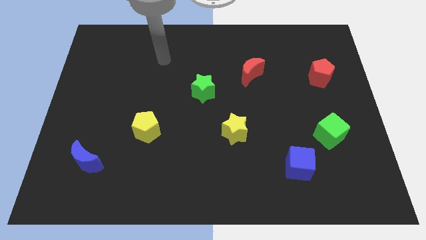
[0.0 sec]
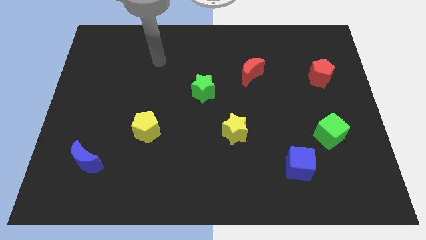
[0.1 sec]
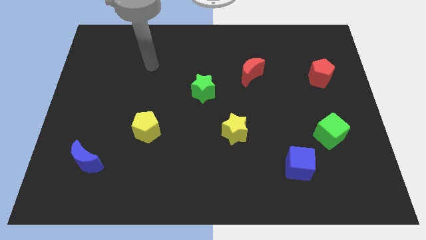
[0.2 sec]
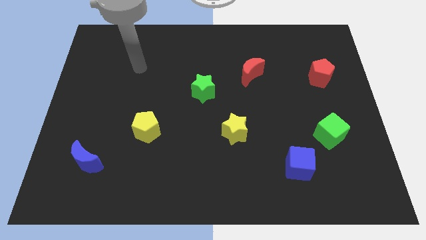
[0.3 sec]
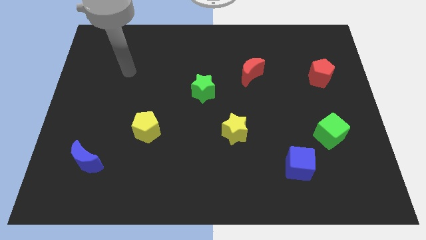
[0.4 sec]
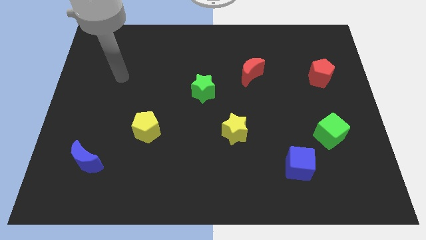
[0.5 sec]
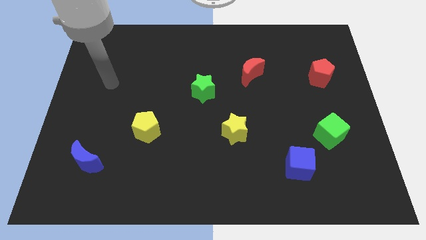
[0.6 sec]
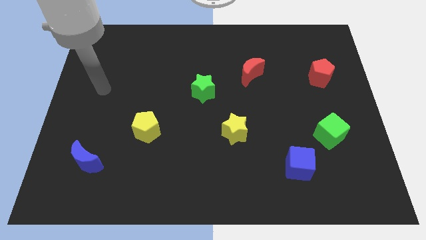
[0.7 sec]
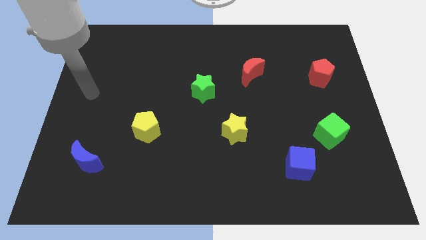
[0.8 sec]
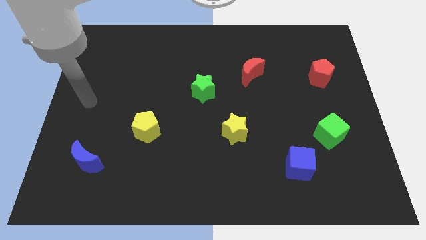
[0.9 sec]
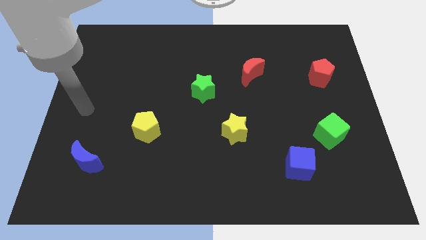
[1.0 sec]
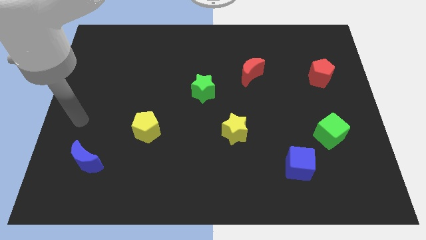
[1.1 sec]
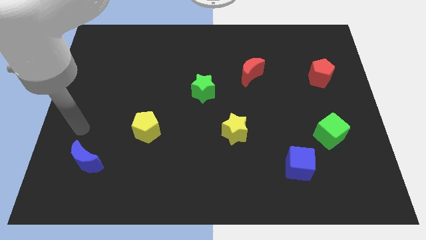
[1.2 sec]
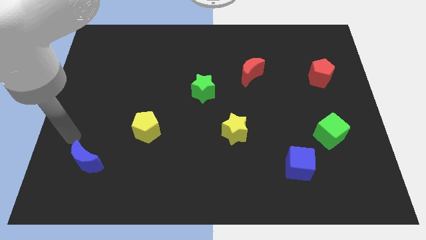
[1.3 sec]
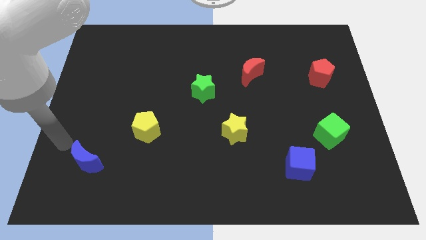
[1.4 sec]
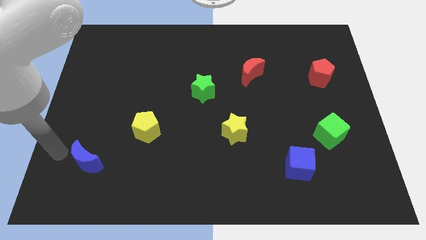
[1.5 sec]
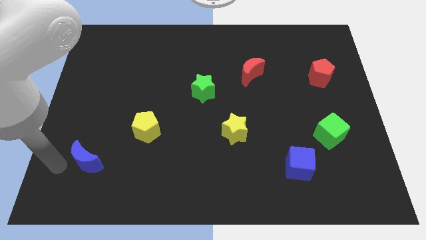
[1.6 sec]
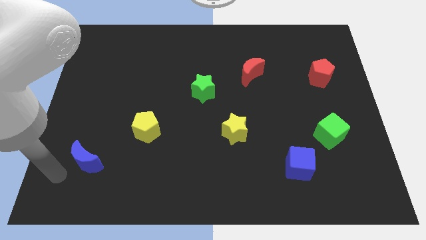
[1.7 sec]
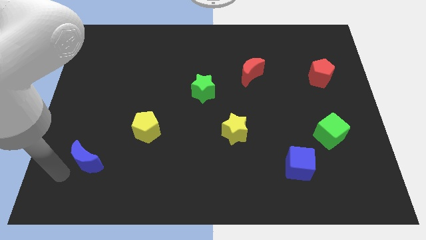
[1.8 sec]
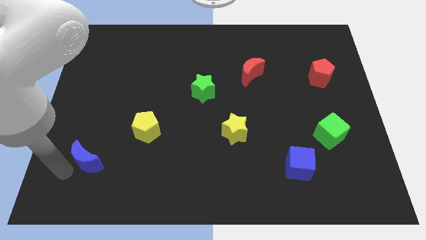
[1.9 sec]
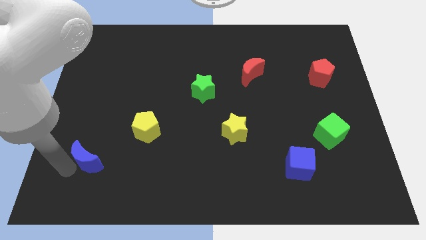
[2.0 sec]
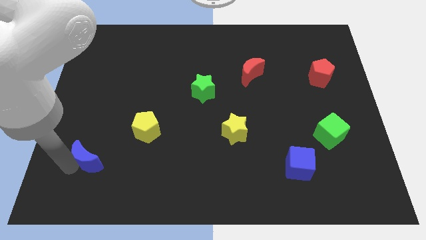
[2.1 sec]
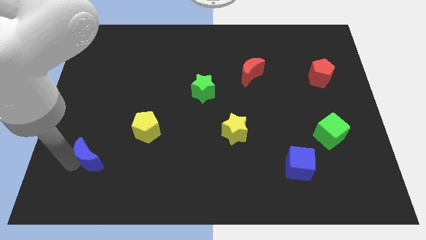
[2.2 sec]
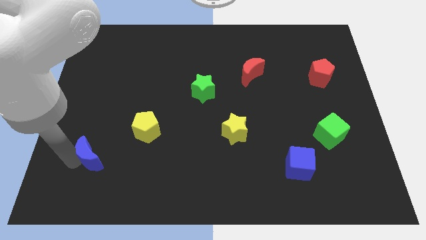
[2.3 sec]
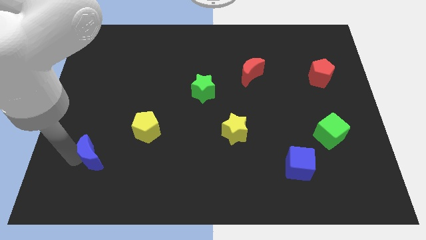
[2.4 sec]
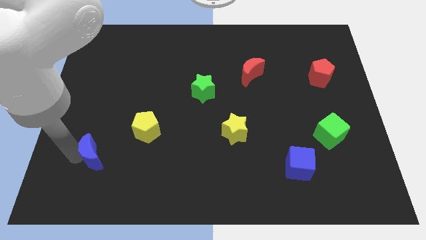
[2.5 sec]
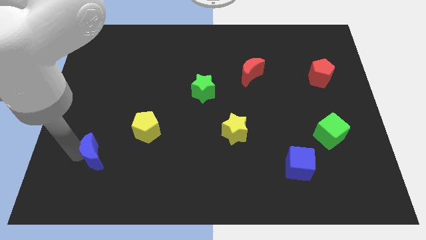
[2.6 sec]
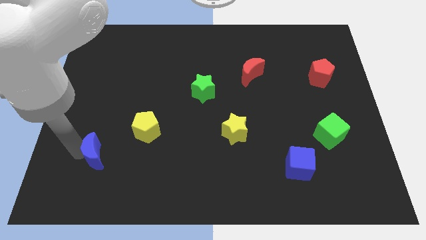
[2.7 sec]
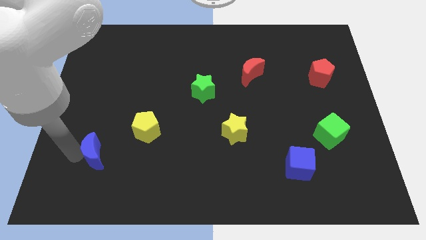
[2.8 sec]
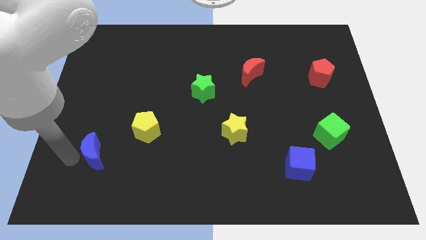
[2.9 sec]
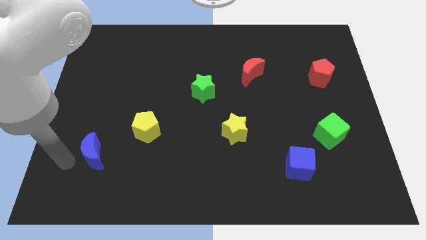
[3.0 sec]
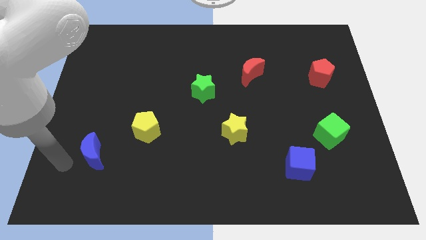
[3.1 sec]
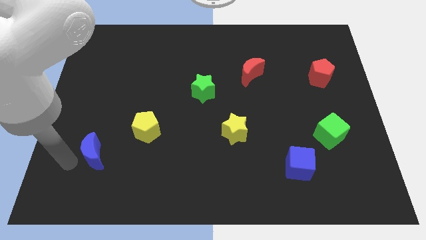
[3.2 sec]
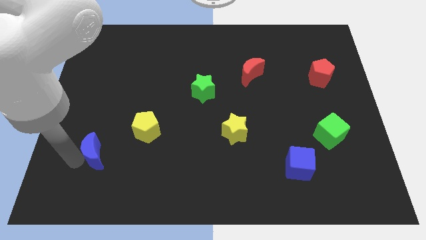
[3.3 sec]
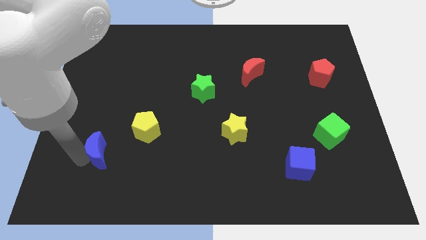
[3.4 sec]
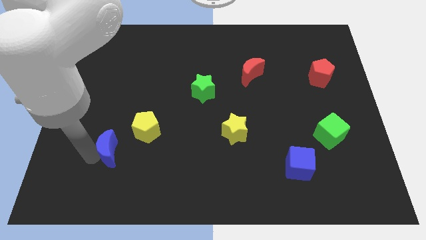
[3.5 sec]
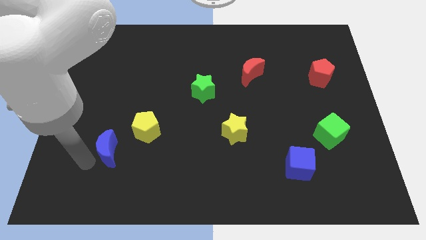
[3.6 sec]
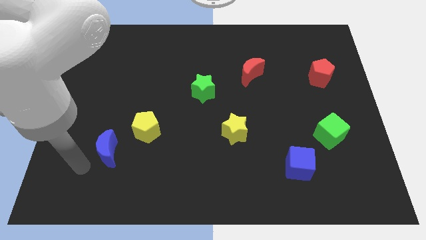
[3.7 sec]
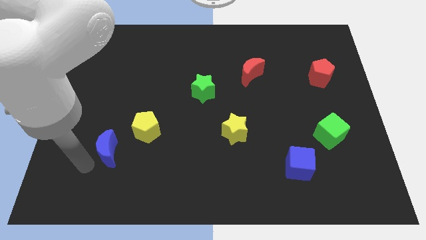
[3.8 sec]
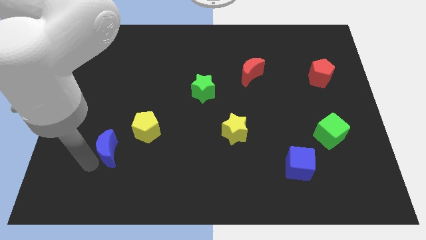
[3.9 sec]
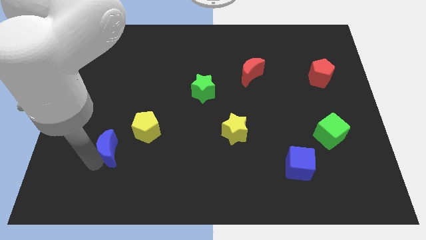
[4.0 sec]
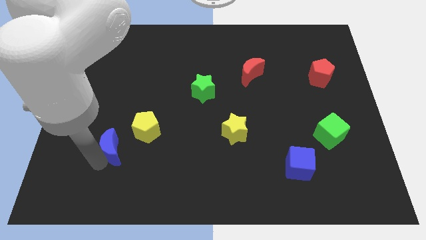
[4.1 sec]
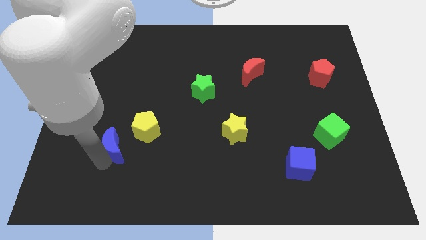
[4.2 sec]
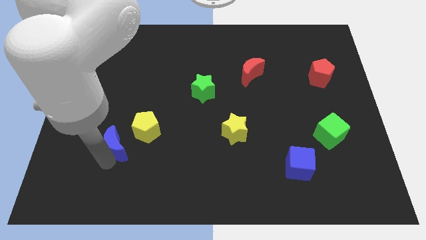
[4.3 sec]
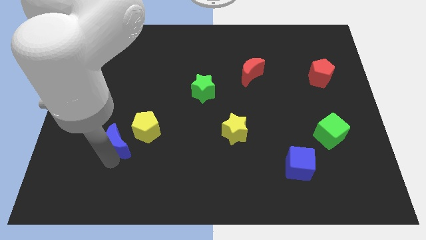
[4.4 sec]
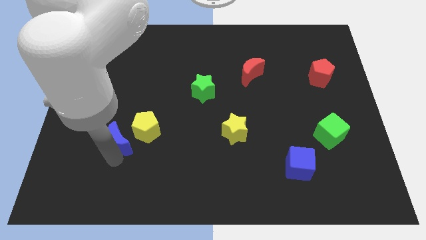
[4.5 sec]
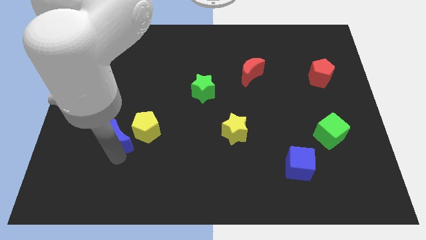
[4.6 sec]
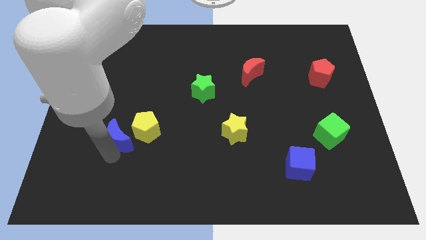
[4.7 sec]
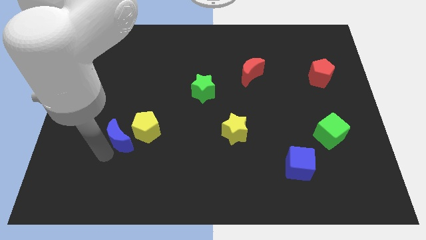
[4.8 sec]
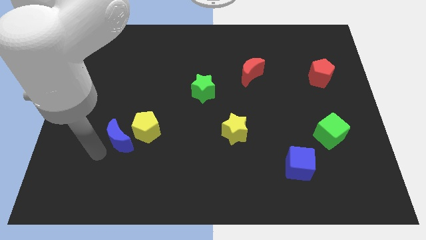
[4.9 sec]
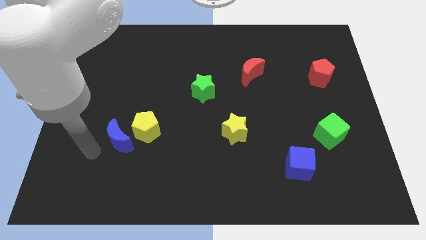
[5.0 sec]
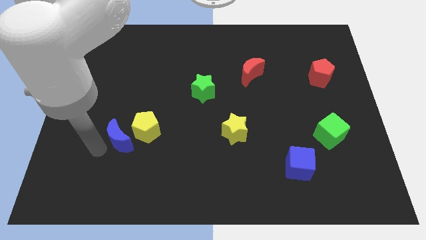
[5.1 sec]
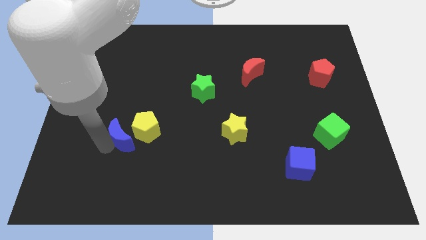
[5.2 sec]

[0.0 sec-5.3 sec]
move the blue moon to the yellow pentagon

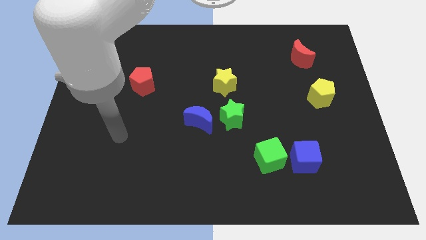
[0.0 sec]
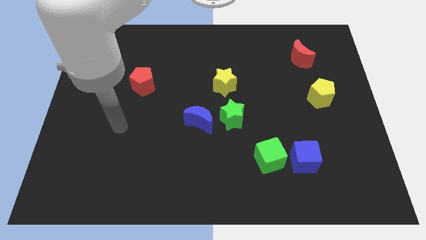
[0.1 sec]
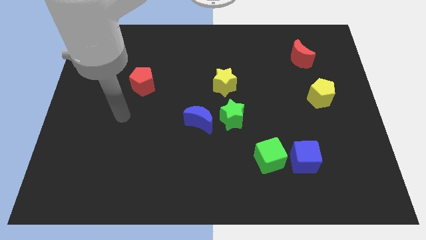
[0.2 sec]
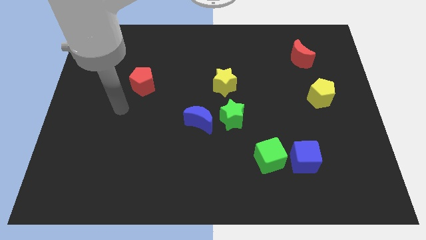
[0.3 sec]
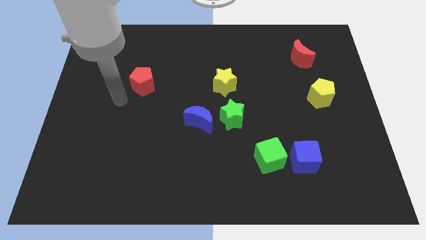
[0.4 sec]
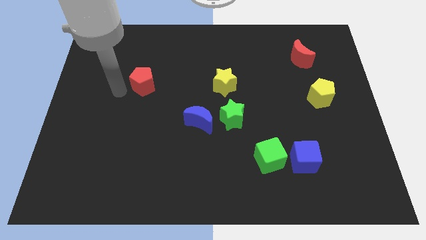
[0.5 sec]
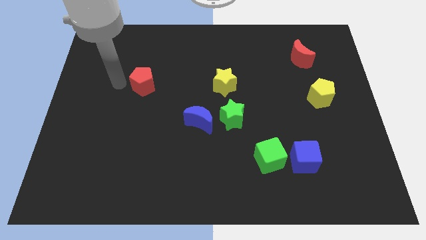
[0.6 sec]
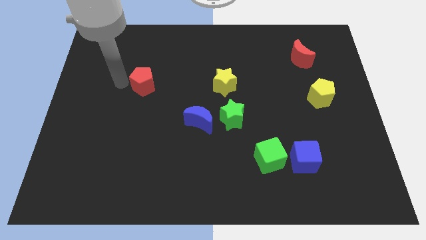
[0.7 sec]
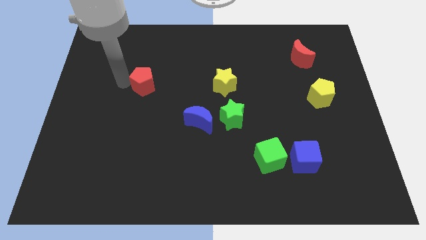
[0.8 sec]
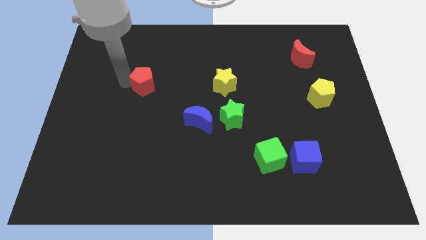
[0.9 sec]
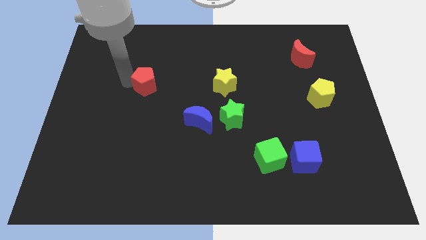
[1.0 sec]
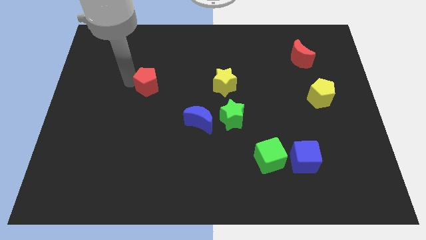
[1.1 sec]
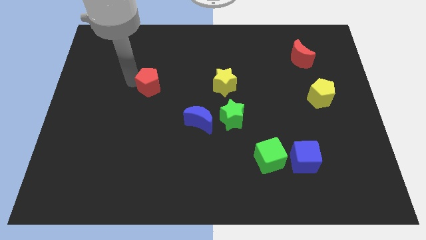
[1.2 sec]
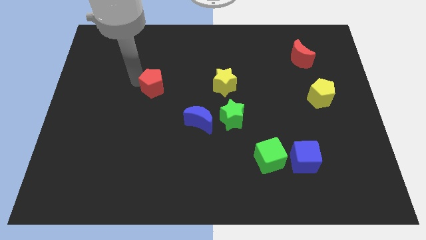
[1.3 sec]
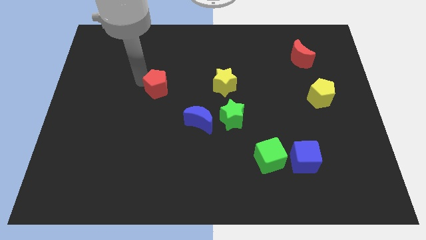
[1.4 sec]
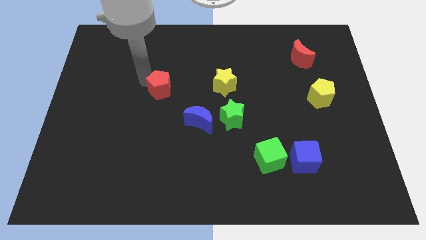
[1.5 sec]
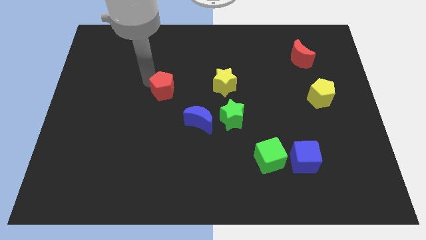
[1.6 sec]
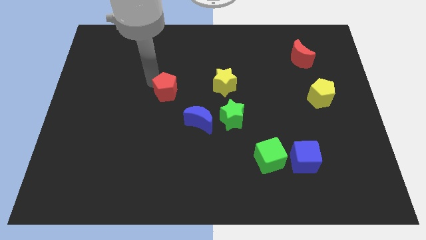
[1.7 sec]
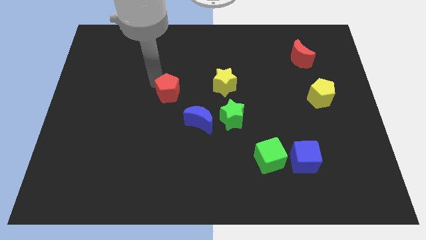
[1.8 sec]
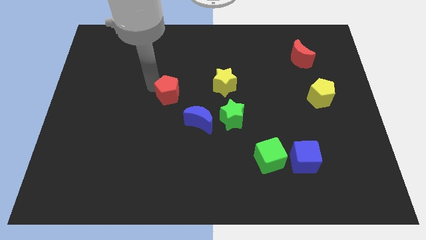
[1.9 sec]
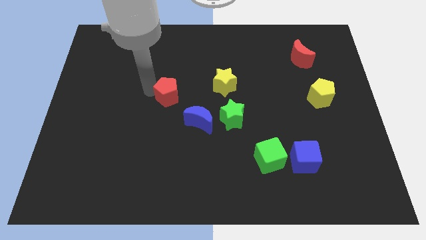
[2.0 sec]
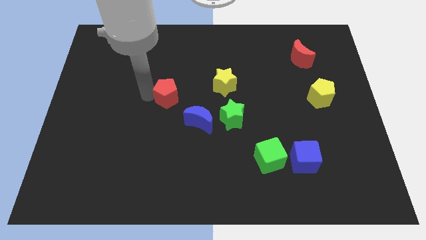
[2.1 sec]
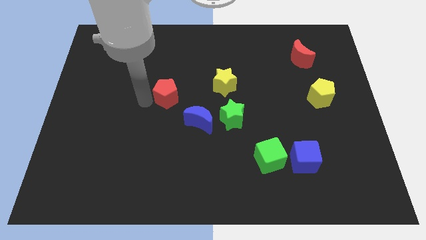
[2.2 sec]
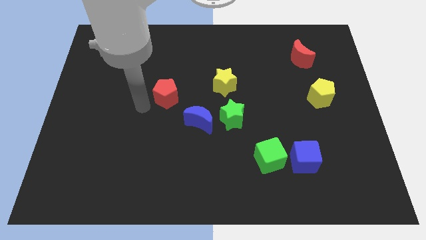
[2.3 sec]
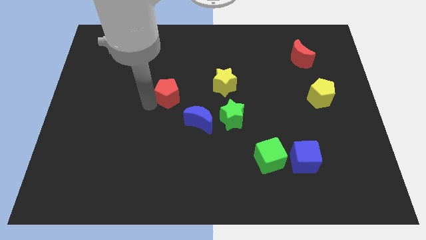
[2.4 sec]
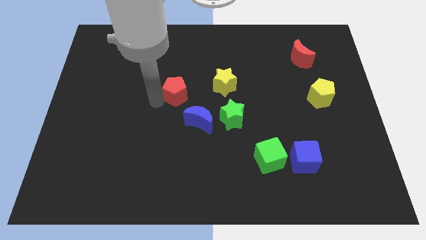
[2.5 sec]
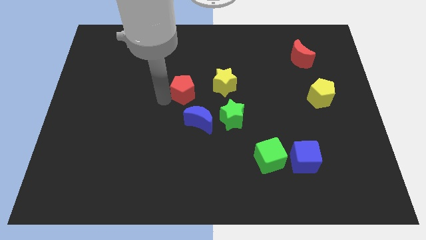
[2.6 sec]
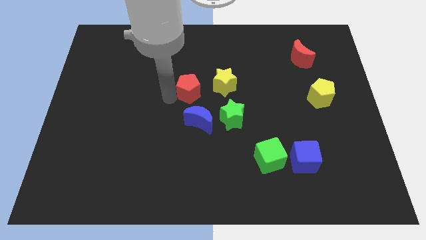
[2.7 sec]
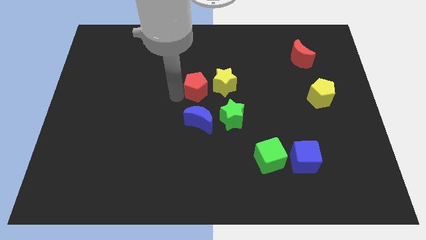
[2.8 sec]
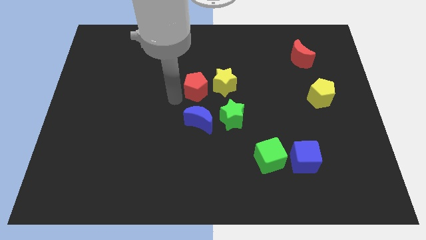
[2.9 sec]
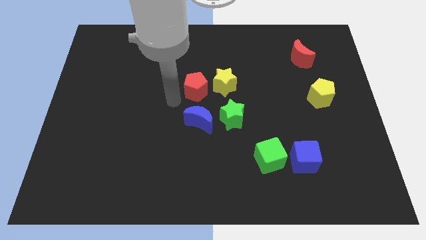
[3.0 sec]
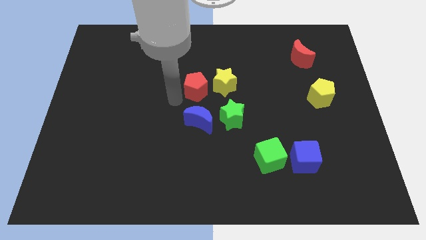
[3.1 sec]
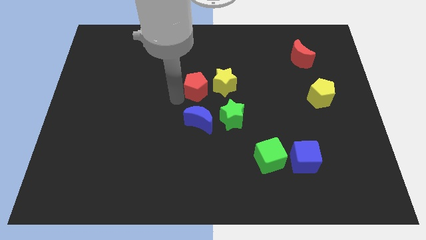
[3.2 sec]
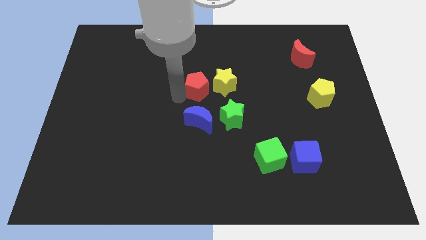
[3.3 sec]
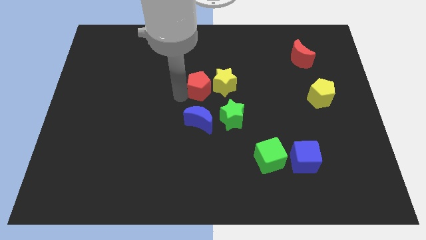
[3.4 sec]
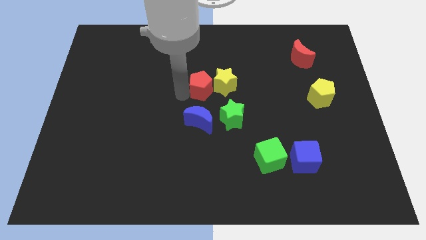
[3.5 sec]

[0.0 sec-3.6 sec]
put the red pentagon close to the yellow star
